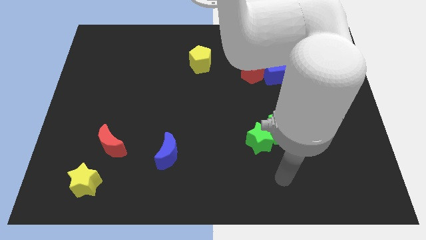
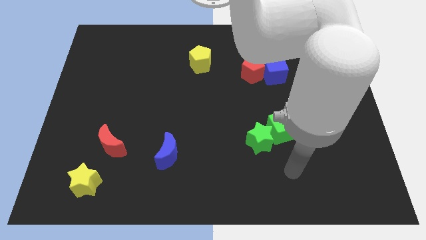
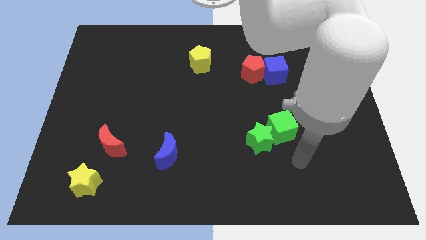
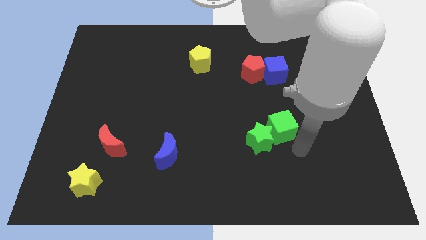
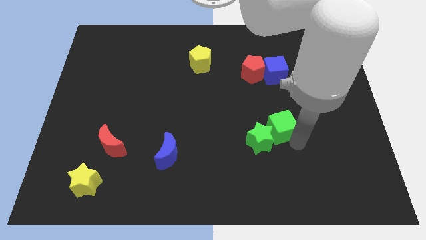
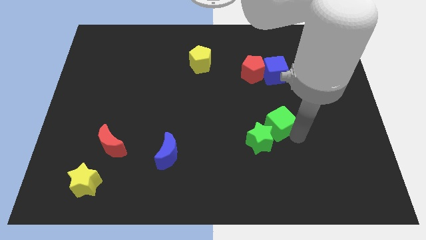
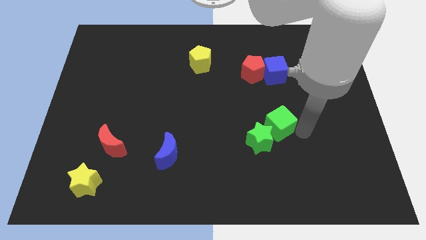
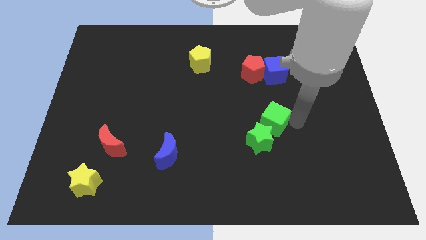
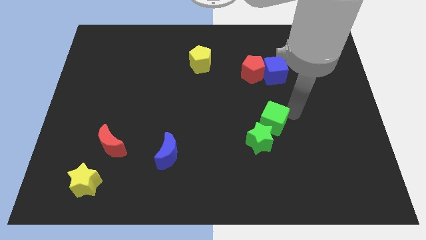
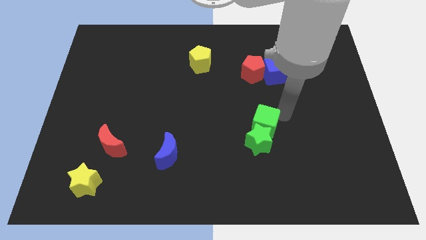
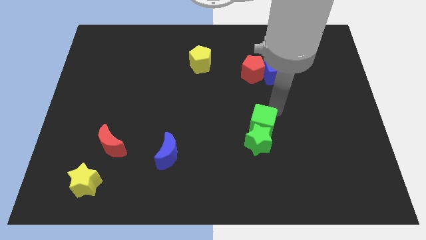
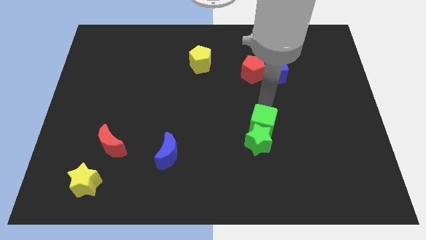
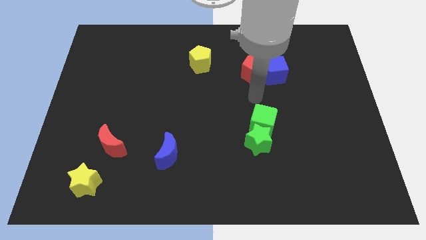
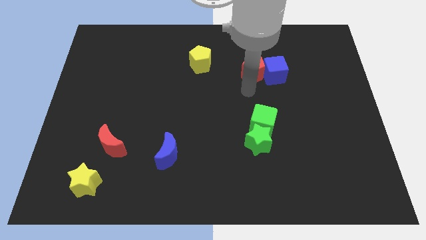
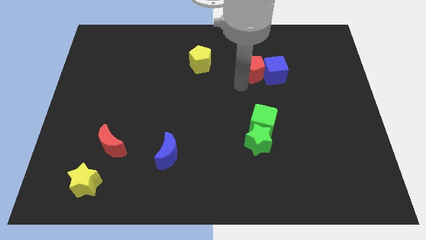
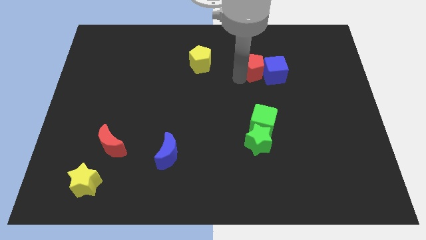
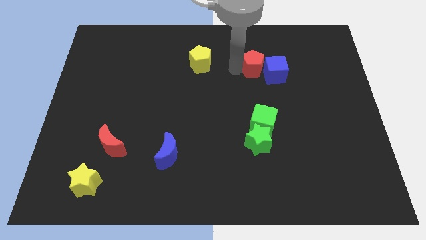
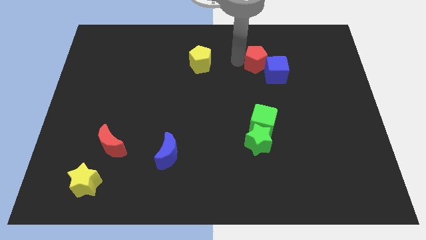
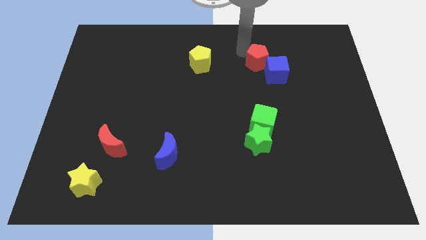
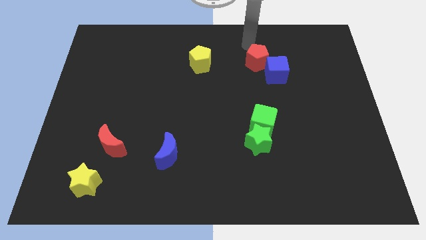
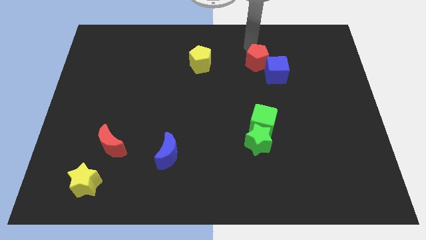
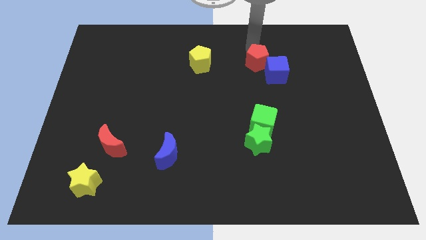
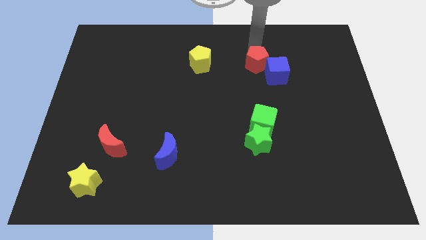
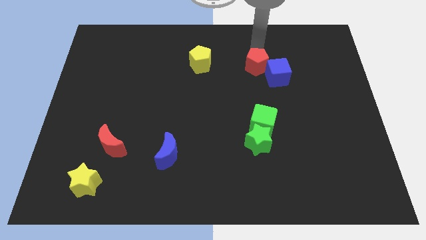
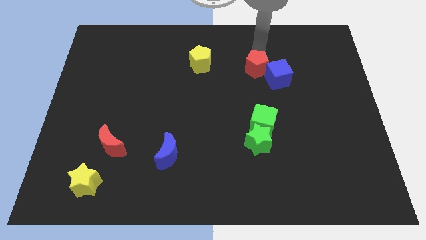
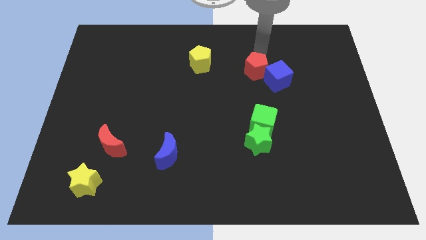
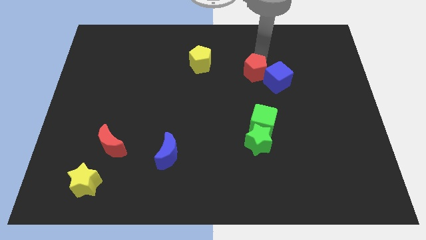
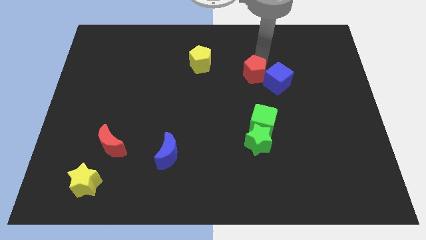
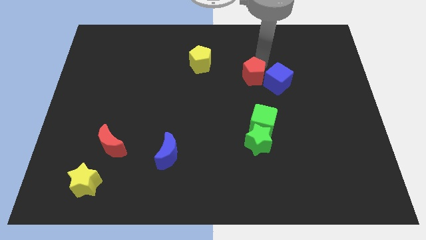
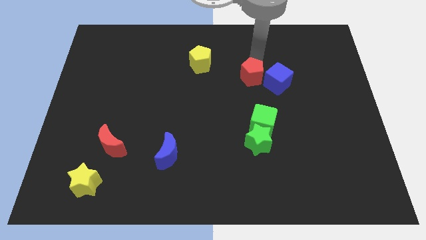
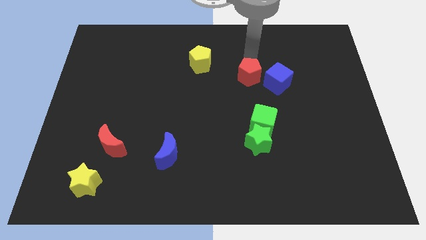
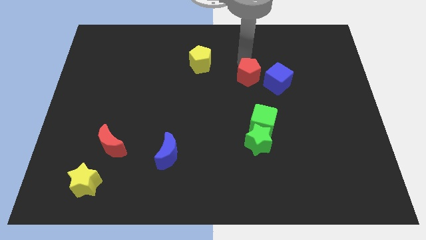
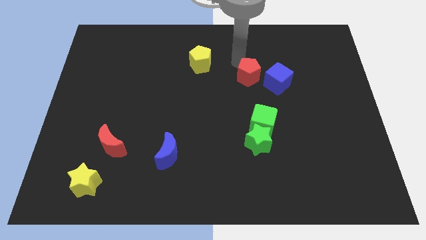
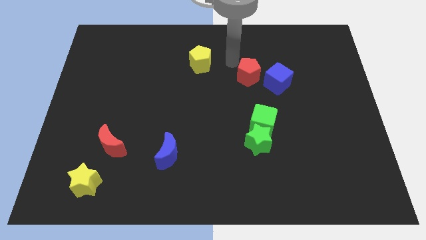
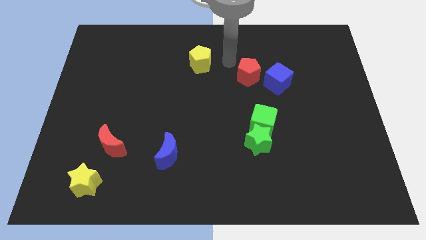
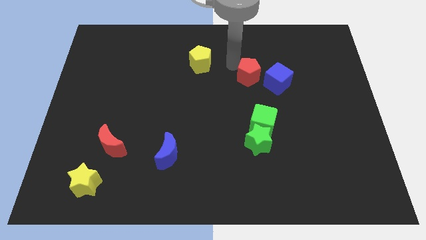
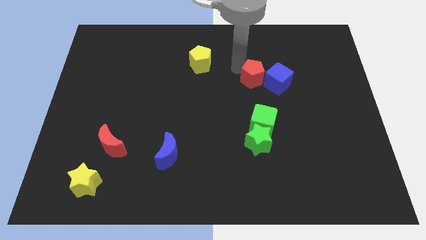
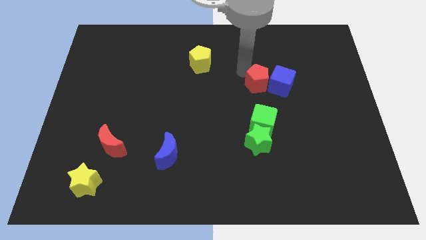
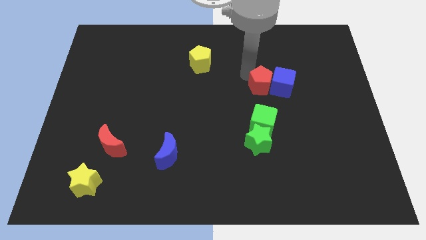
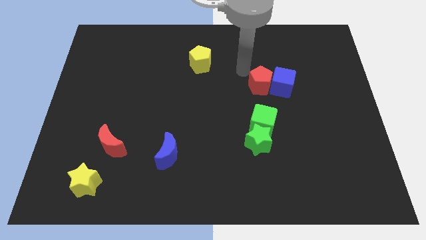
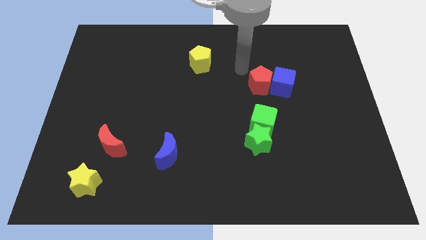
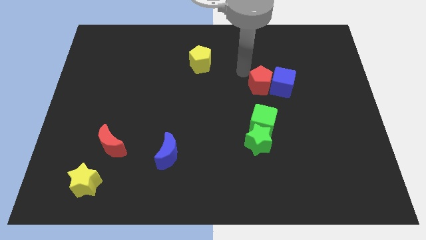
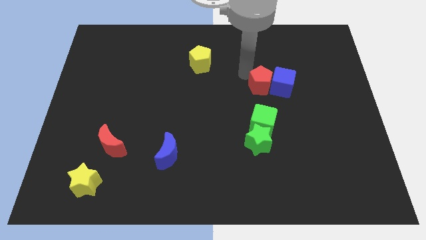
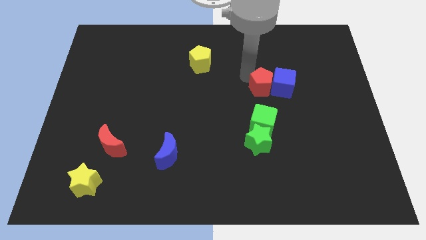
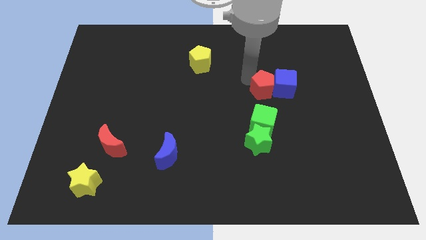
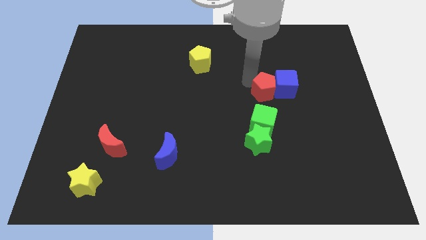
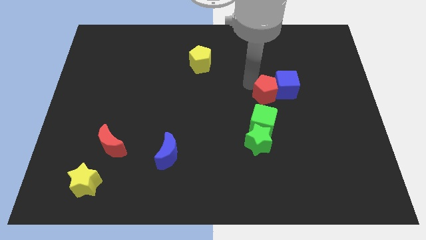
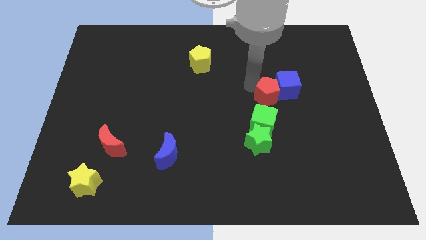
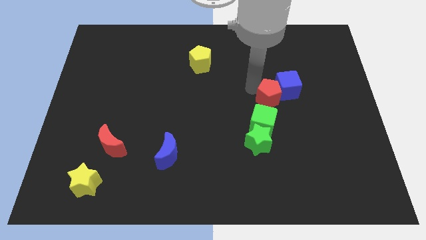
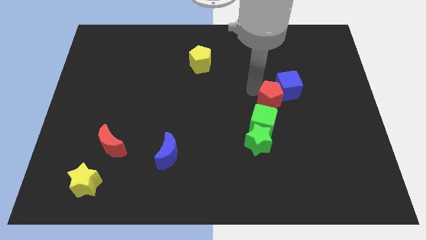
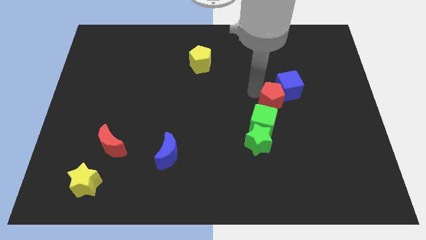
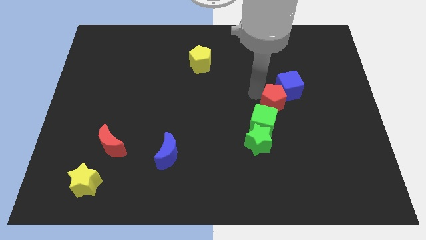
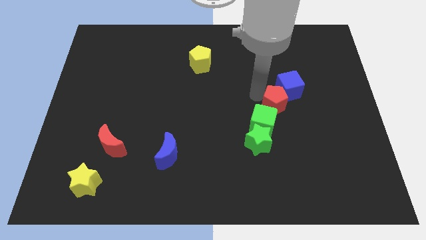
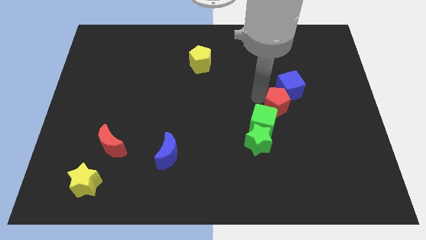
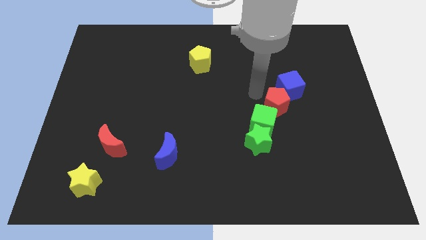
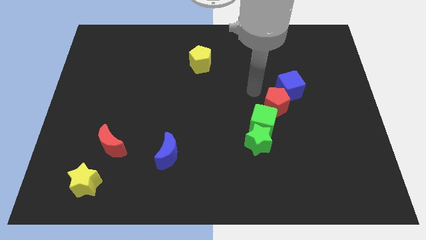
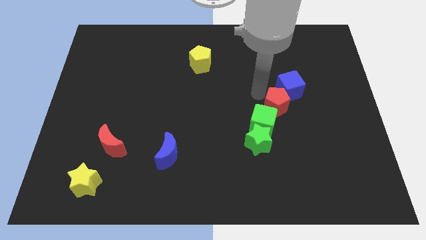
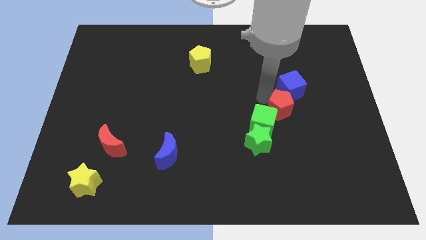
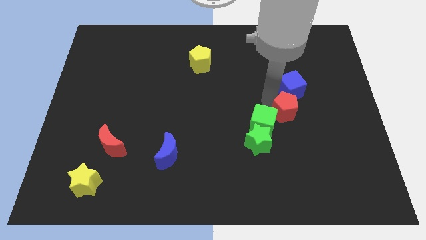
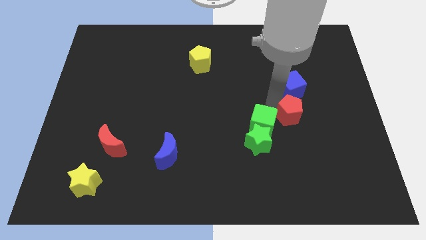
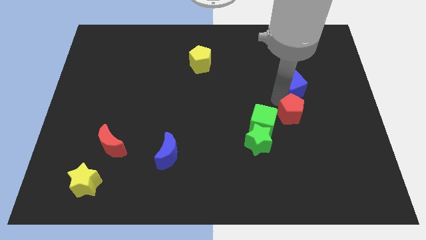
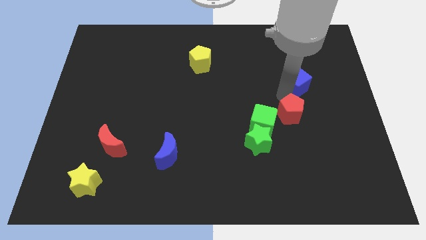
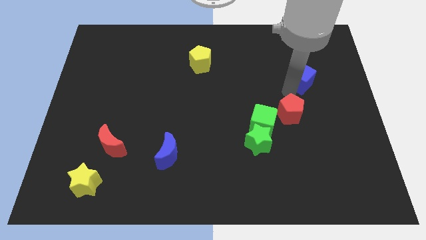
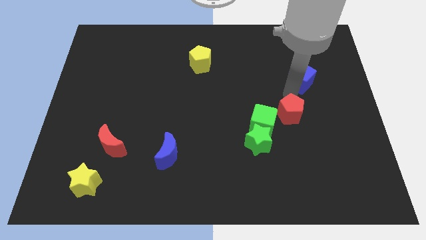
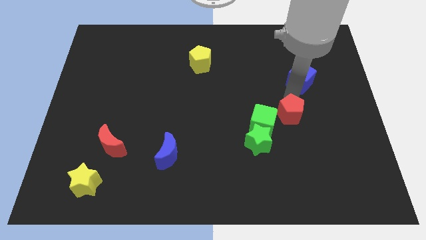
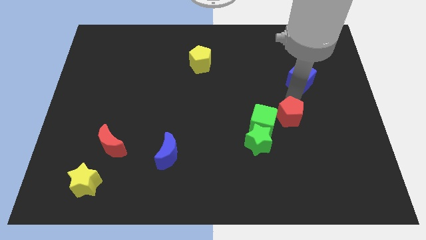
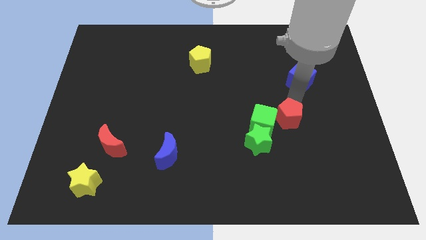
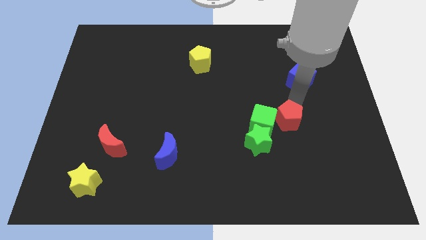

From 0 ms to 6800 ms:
move the red pentagon to the bottom right of the green cube
